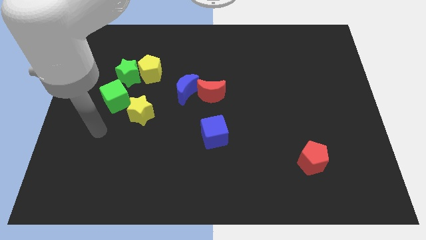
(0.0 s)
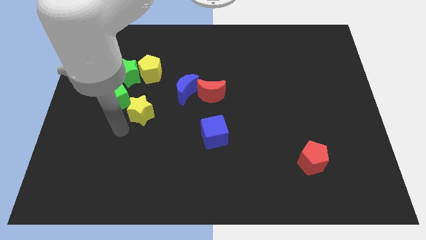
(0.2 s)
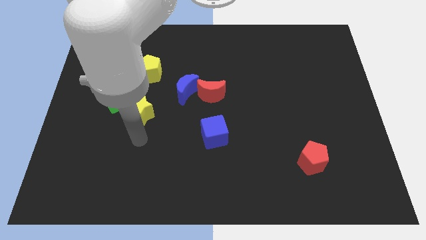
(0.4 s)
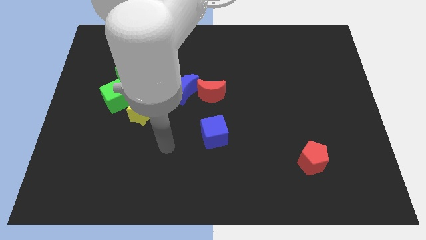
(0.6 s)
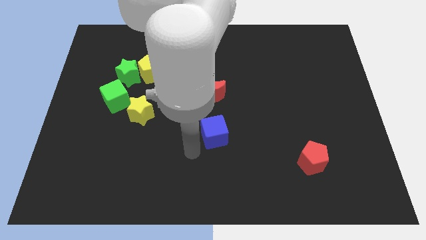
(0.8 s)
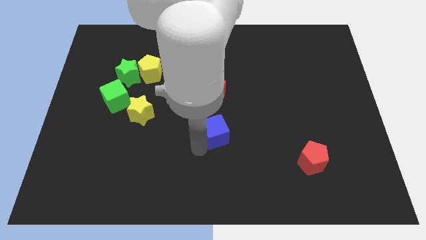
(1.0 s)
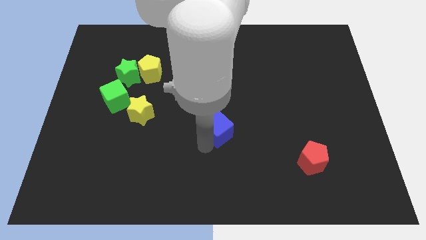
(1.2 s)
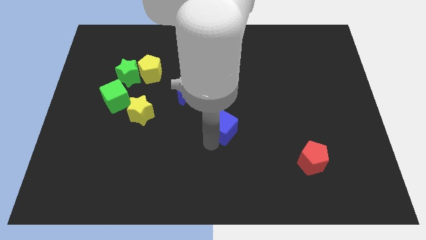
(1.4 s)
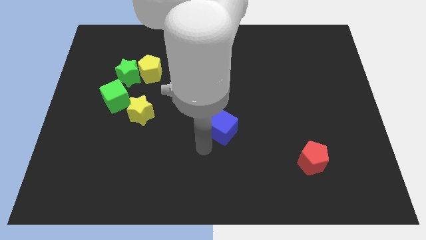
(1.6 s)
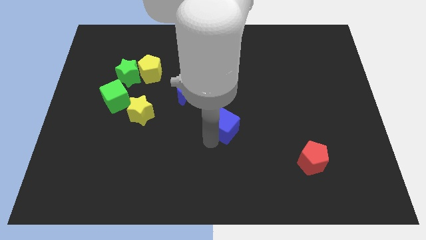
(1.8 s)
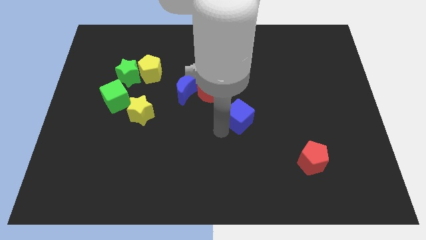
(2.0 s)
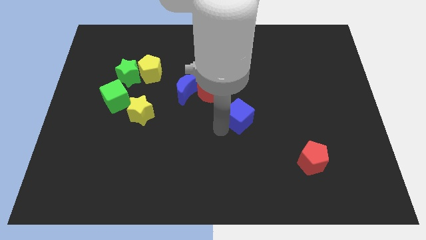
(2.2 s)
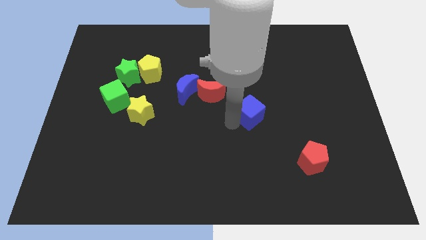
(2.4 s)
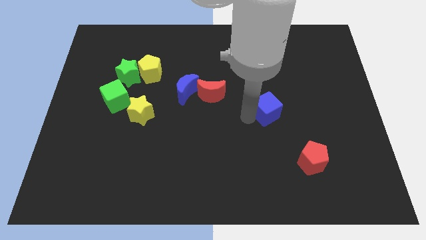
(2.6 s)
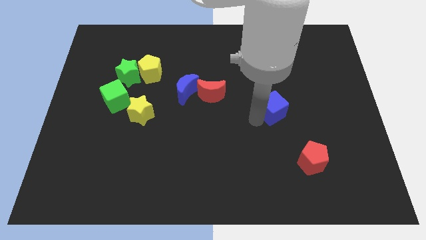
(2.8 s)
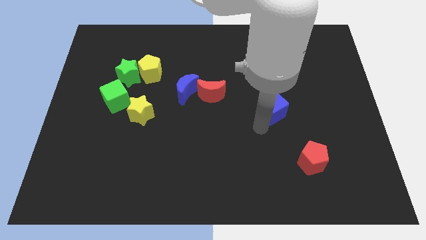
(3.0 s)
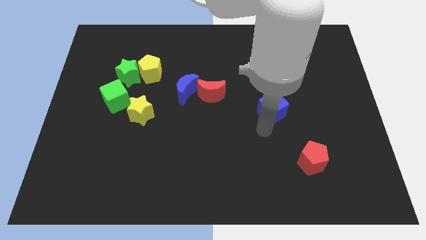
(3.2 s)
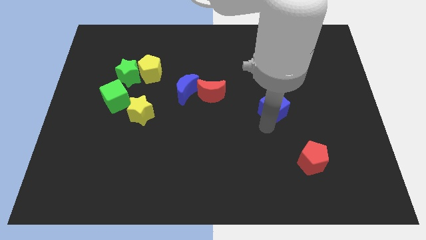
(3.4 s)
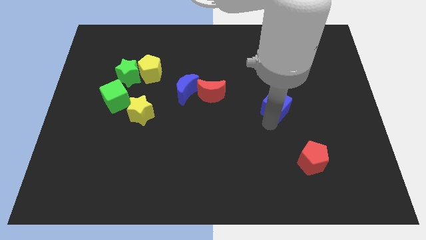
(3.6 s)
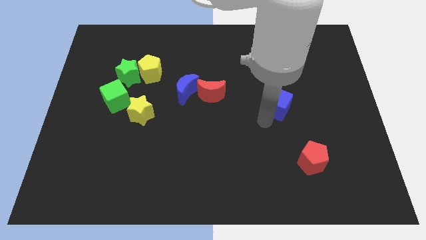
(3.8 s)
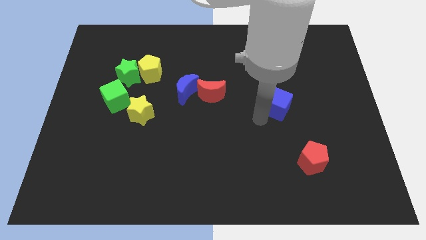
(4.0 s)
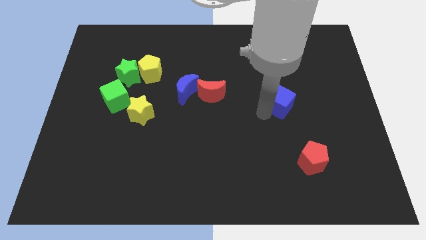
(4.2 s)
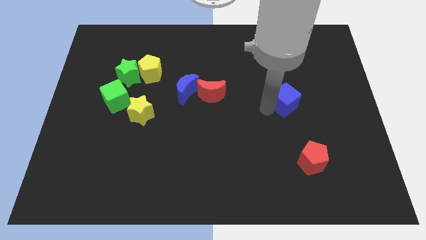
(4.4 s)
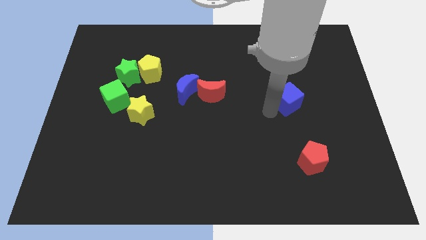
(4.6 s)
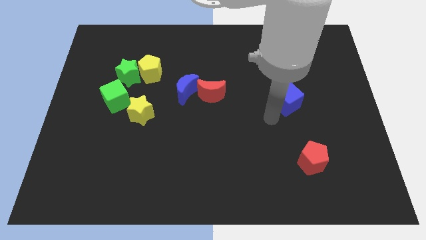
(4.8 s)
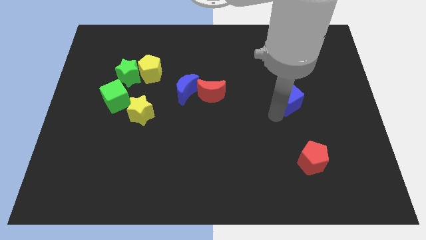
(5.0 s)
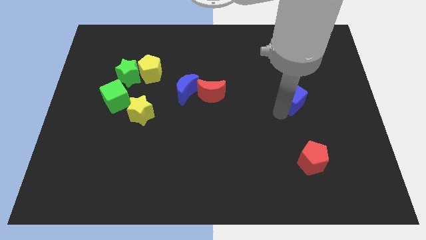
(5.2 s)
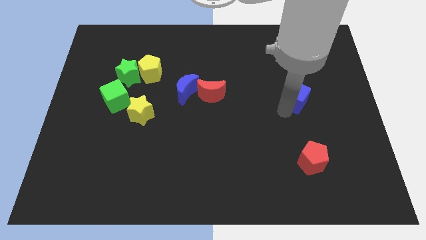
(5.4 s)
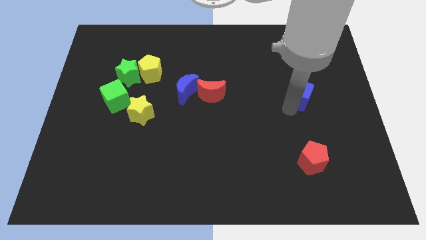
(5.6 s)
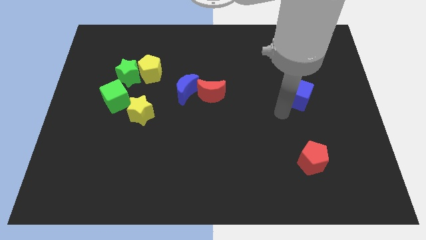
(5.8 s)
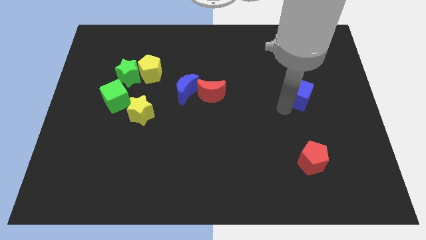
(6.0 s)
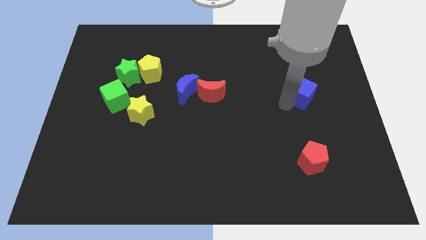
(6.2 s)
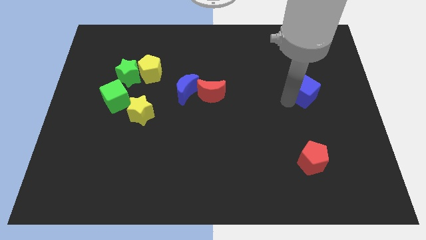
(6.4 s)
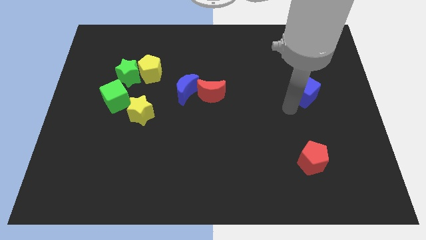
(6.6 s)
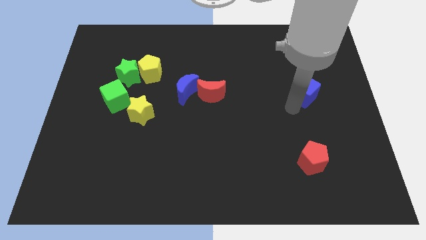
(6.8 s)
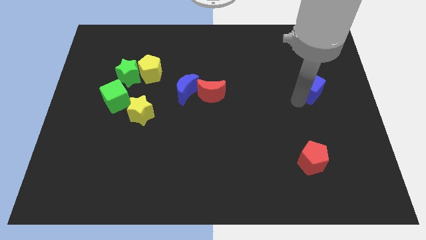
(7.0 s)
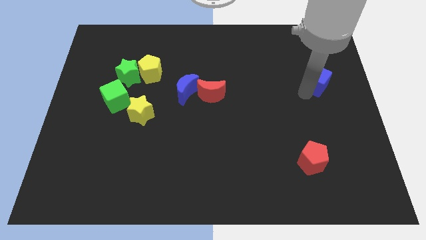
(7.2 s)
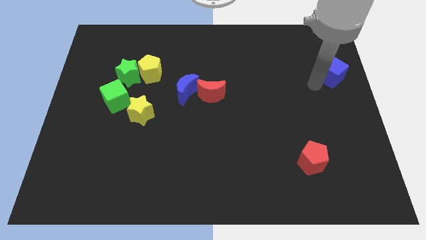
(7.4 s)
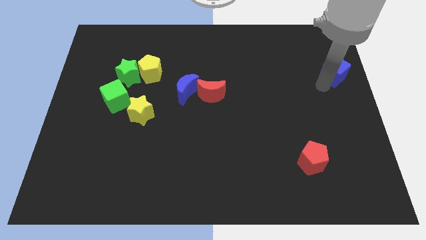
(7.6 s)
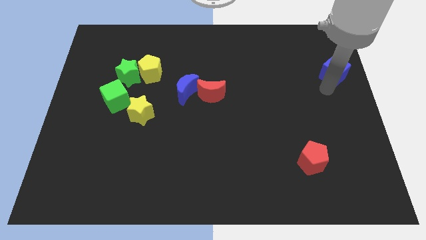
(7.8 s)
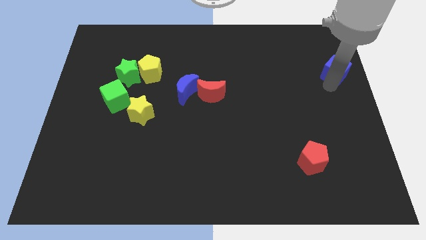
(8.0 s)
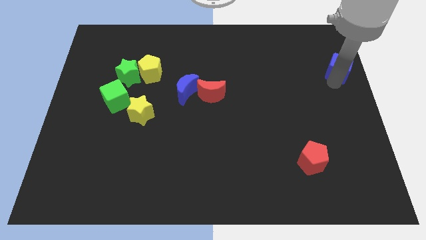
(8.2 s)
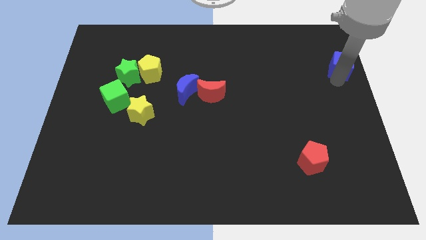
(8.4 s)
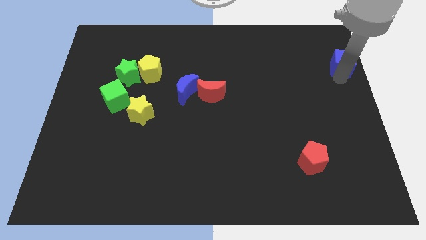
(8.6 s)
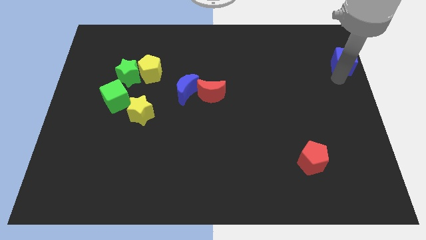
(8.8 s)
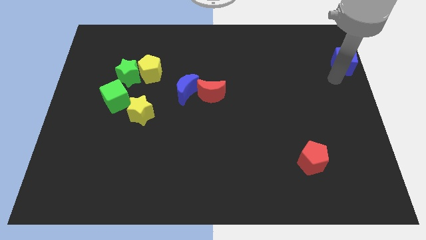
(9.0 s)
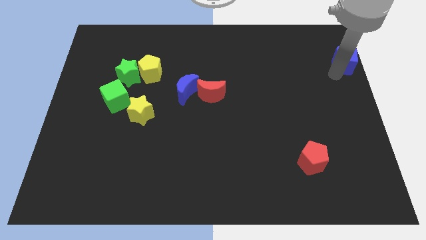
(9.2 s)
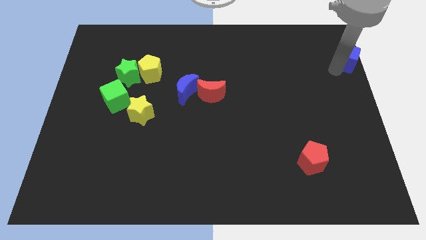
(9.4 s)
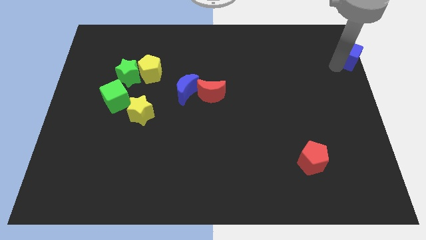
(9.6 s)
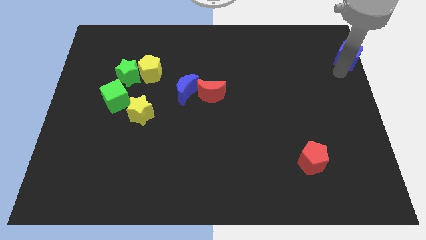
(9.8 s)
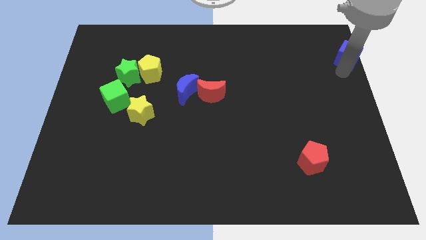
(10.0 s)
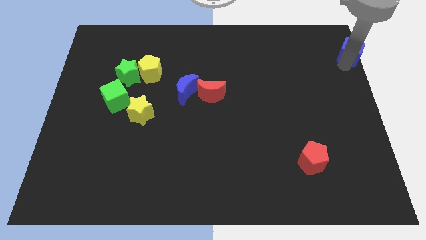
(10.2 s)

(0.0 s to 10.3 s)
move the blue cube to the top right of the board
